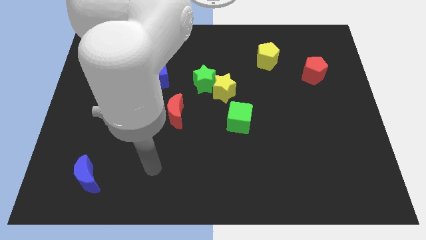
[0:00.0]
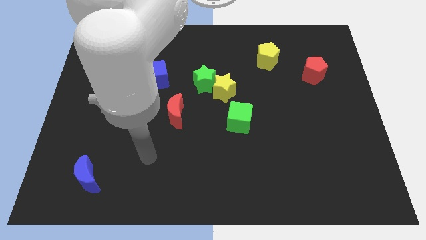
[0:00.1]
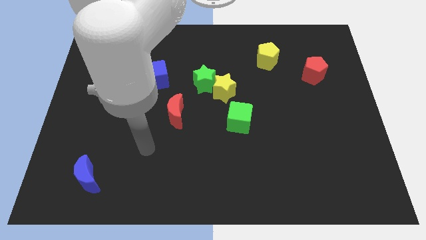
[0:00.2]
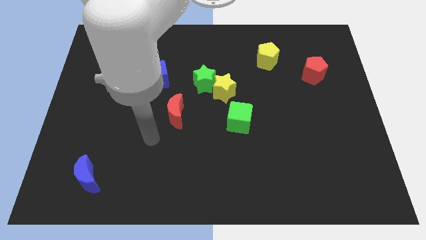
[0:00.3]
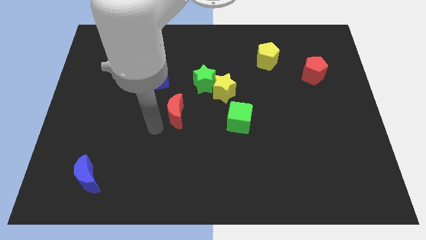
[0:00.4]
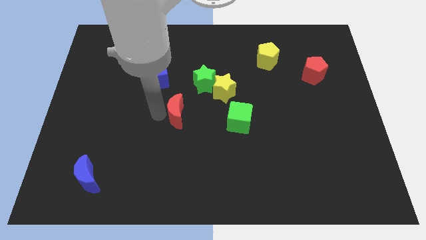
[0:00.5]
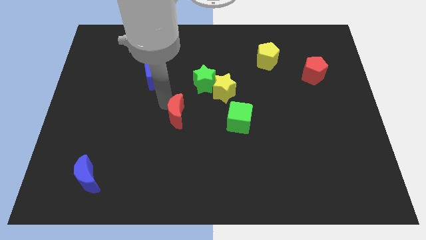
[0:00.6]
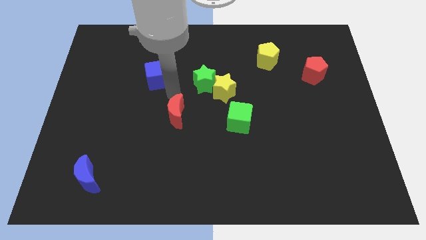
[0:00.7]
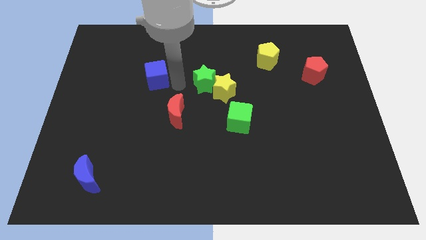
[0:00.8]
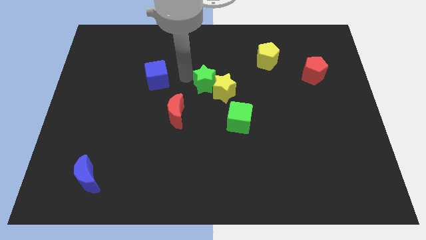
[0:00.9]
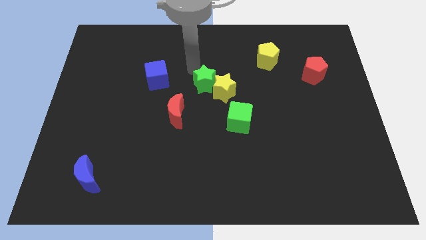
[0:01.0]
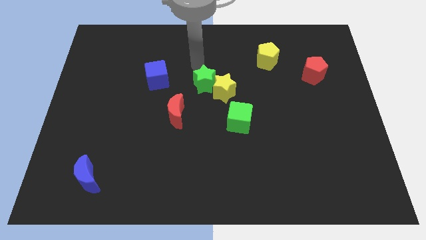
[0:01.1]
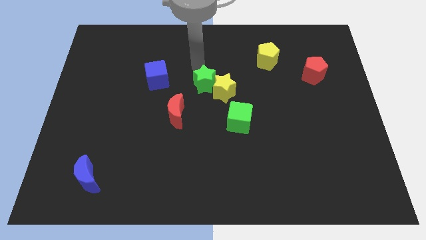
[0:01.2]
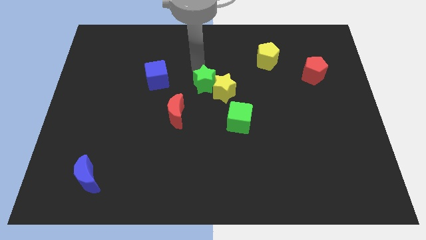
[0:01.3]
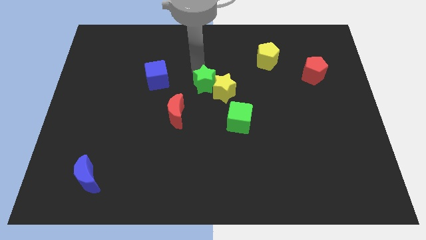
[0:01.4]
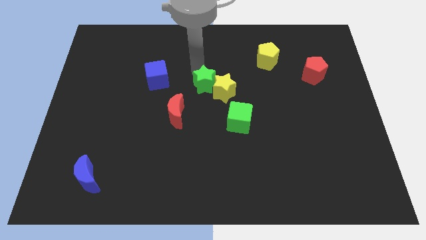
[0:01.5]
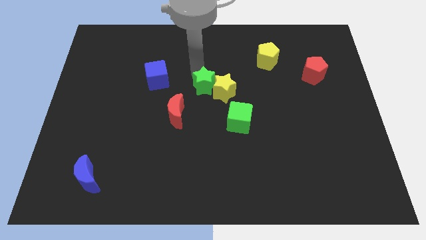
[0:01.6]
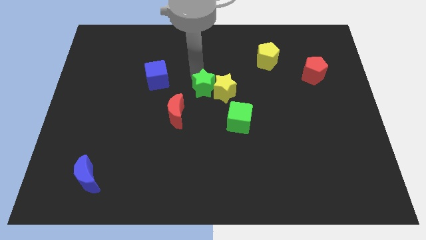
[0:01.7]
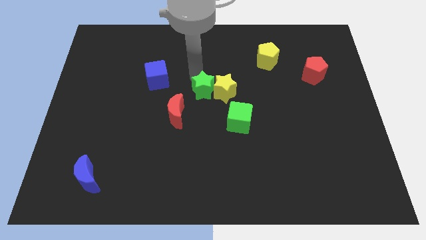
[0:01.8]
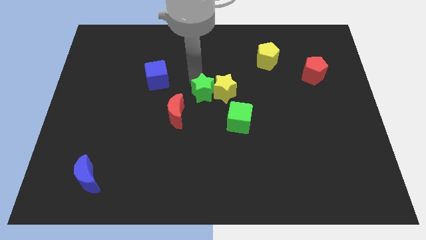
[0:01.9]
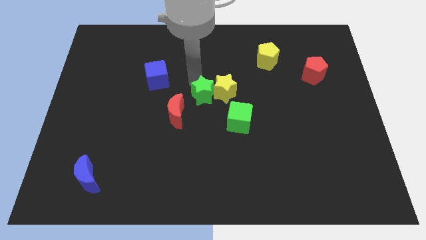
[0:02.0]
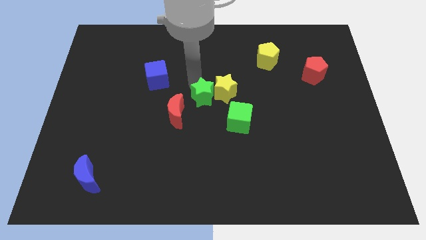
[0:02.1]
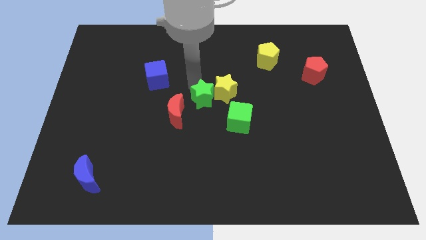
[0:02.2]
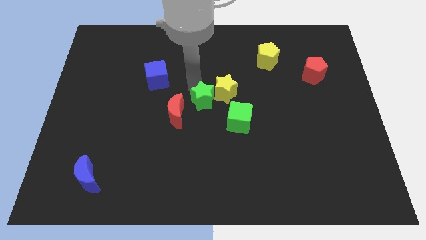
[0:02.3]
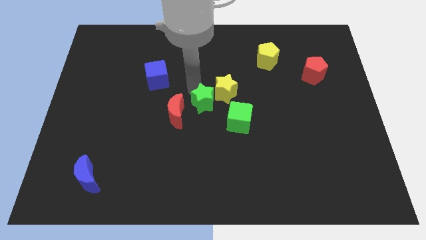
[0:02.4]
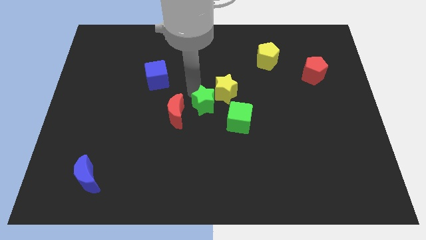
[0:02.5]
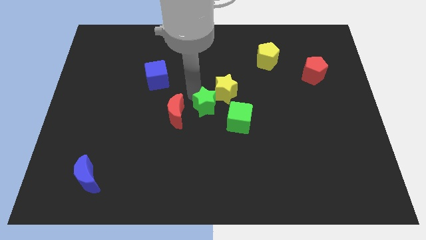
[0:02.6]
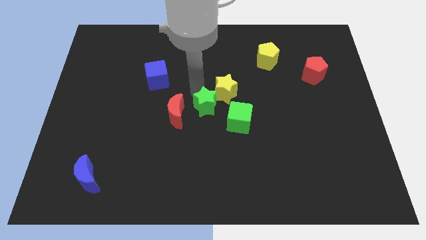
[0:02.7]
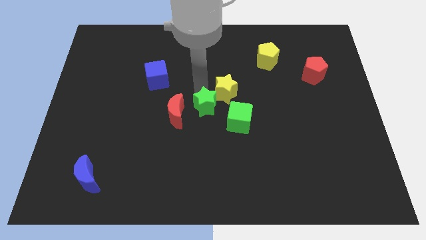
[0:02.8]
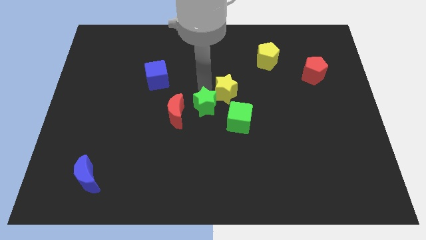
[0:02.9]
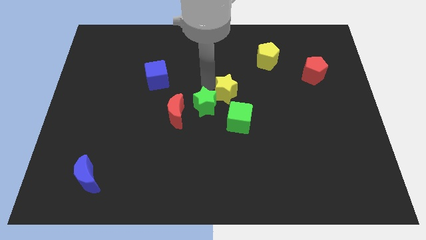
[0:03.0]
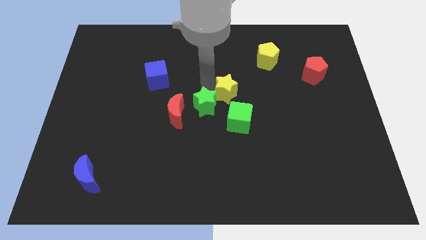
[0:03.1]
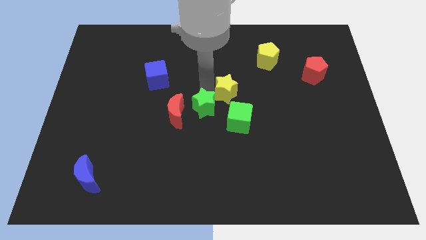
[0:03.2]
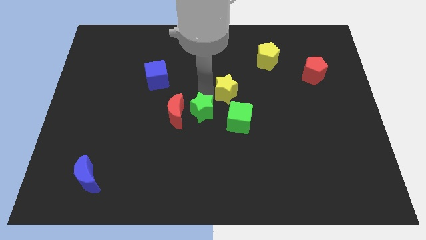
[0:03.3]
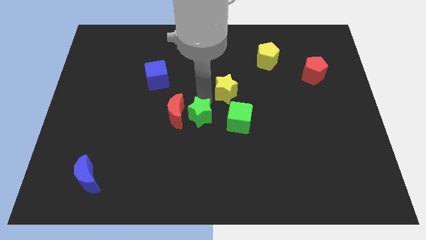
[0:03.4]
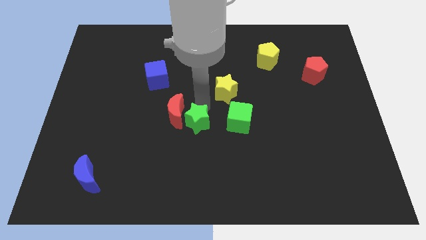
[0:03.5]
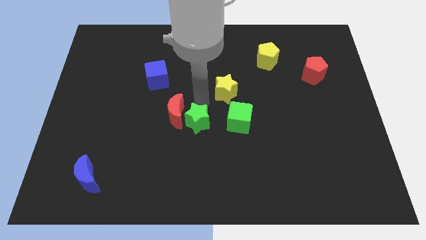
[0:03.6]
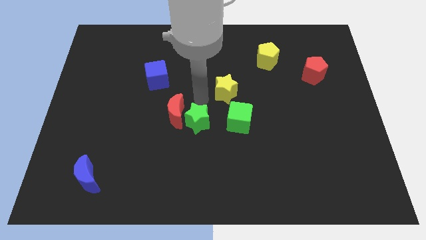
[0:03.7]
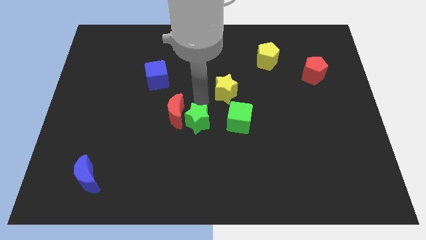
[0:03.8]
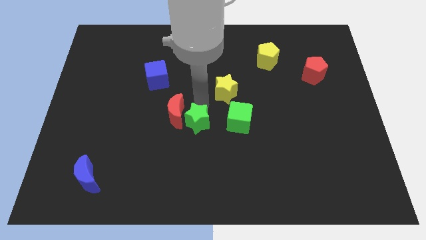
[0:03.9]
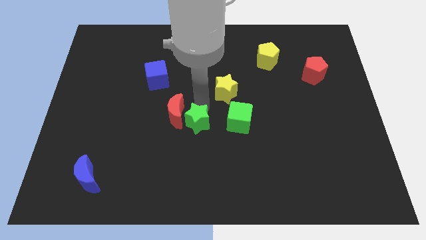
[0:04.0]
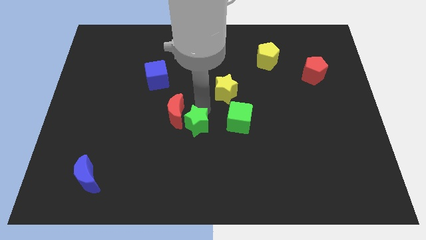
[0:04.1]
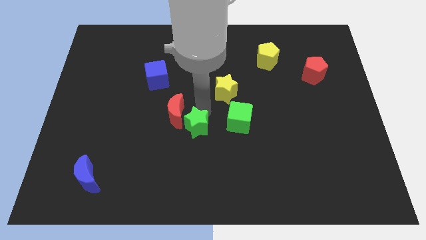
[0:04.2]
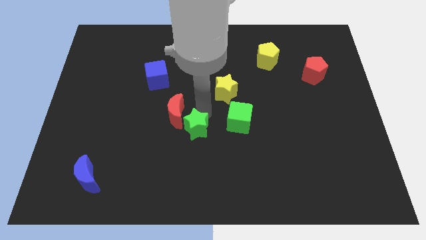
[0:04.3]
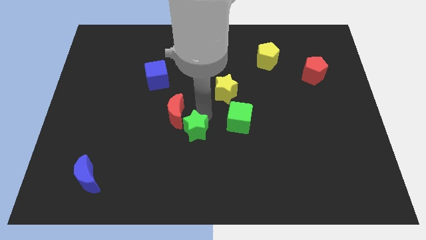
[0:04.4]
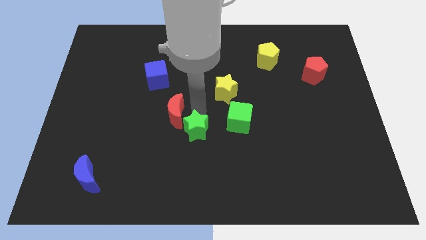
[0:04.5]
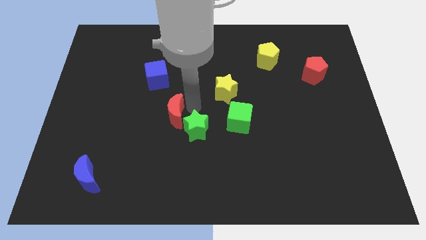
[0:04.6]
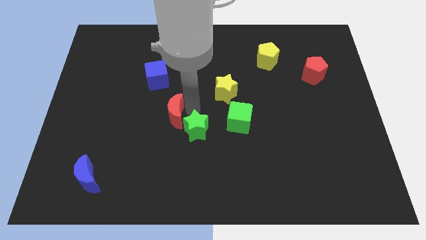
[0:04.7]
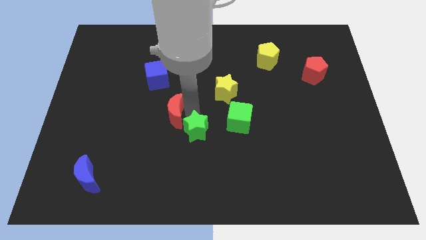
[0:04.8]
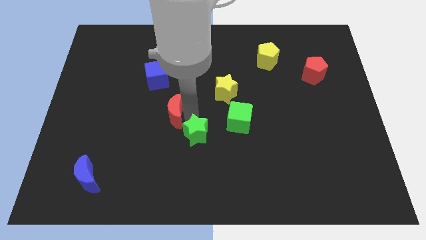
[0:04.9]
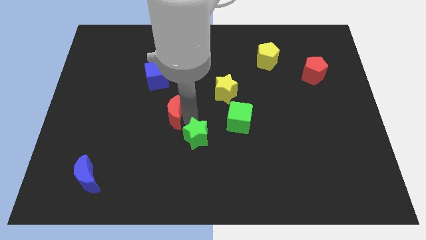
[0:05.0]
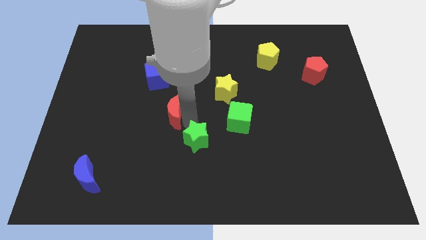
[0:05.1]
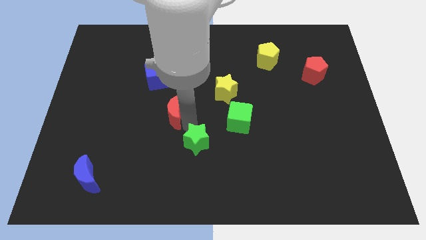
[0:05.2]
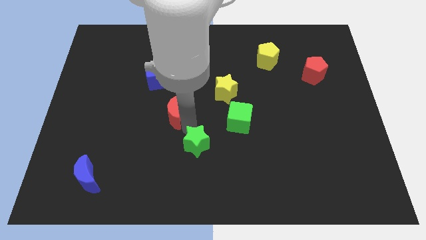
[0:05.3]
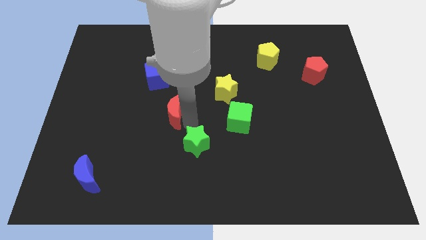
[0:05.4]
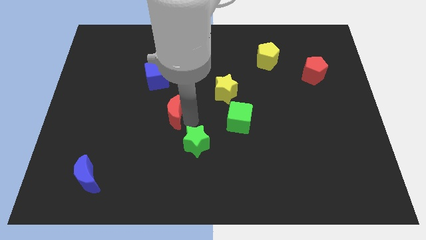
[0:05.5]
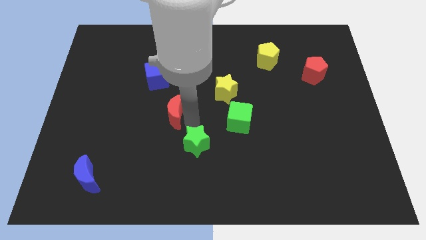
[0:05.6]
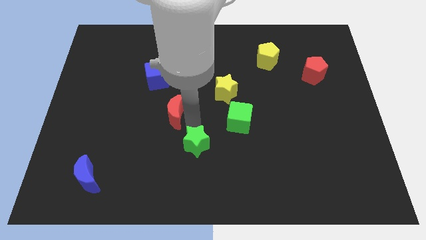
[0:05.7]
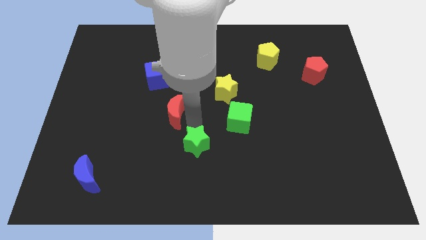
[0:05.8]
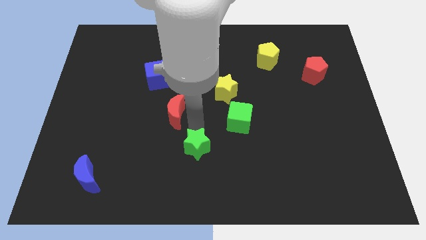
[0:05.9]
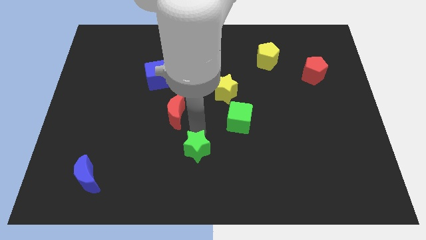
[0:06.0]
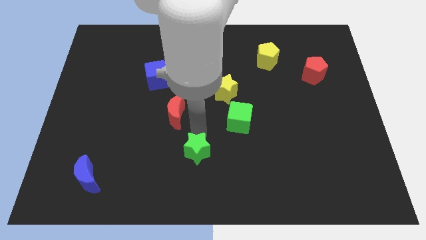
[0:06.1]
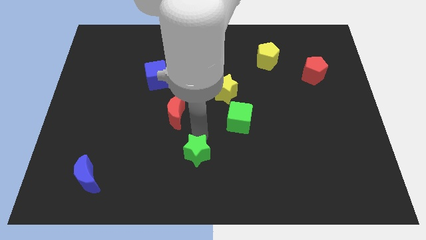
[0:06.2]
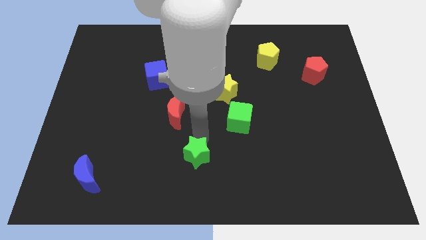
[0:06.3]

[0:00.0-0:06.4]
move the green star to the bottom

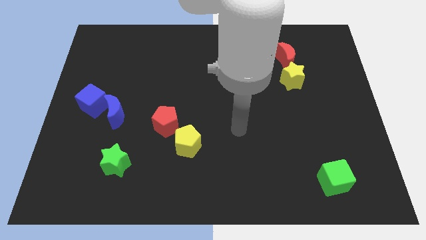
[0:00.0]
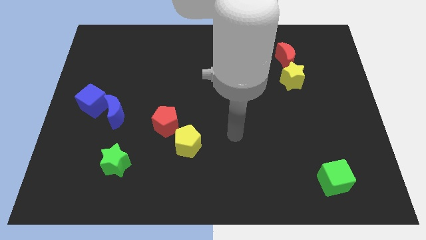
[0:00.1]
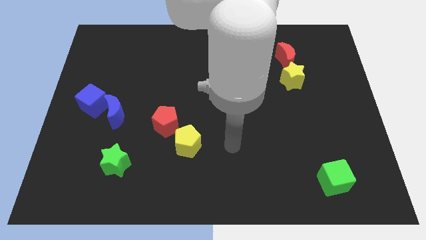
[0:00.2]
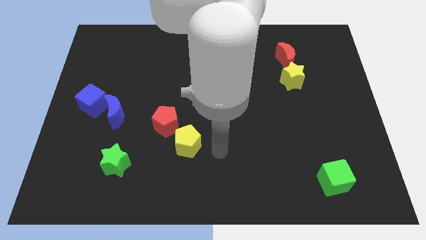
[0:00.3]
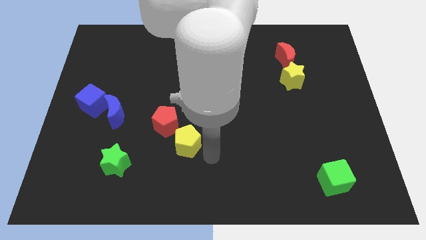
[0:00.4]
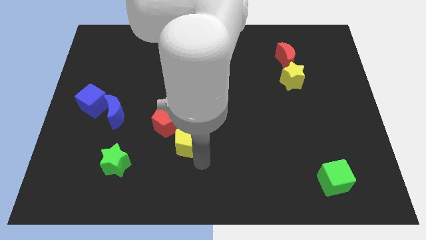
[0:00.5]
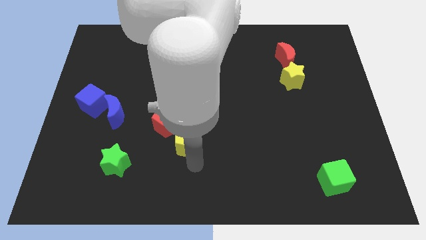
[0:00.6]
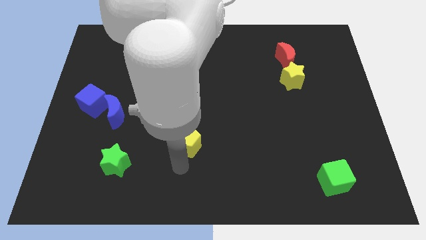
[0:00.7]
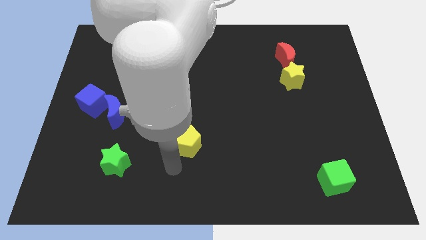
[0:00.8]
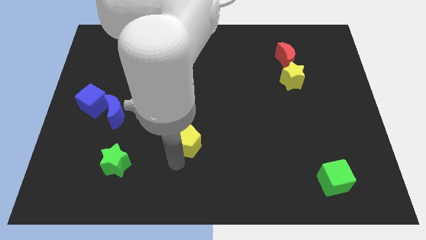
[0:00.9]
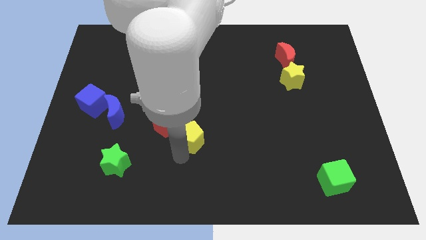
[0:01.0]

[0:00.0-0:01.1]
slide the yellow pentagon to the center of the board
